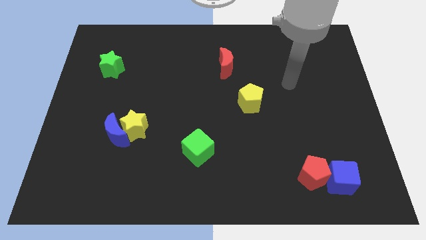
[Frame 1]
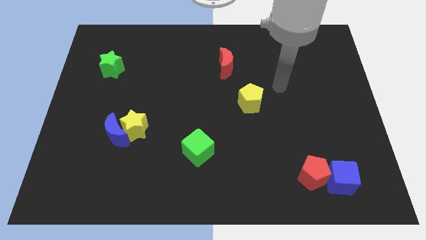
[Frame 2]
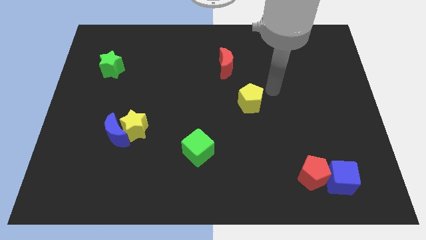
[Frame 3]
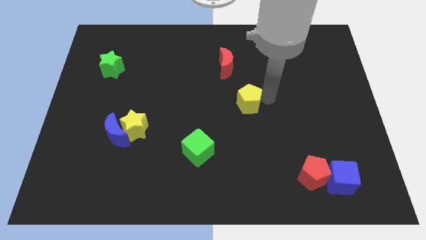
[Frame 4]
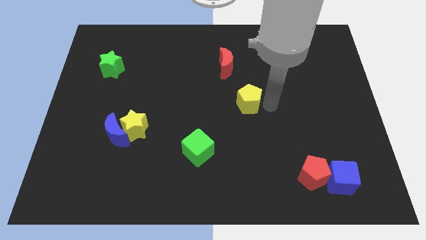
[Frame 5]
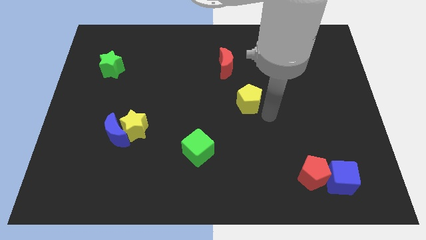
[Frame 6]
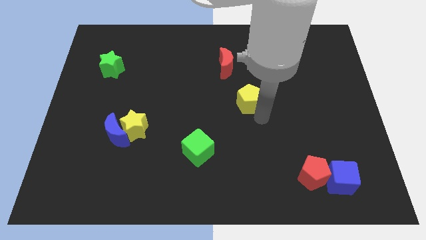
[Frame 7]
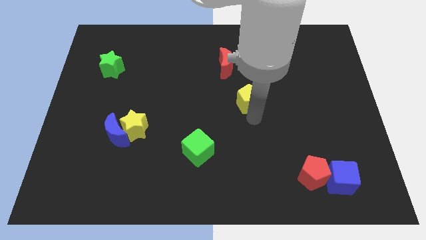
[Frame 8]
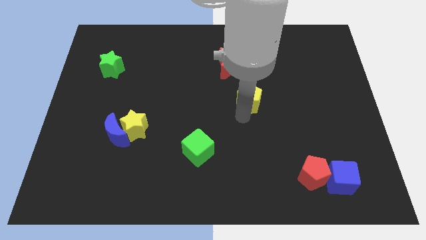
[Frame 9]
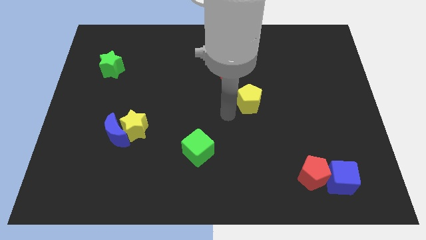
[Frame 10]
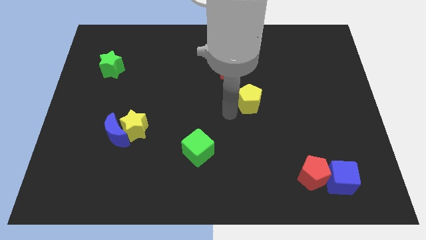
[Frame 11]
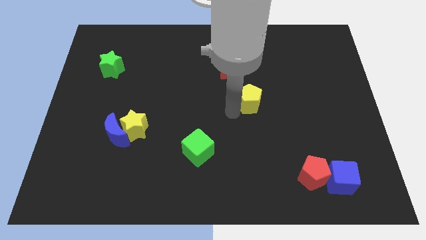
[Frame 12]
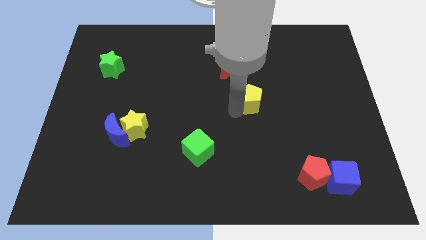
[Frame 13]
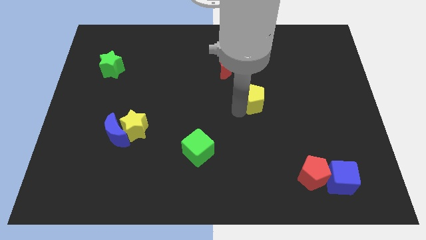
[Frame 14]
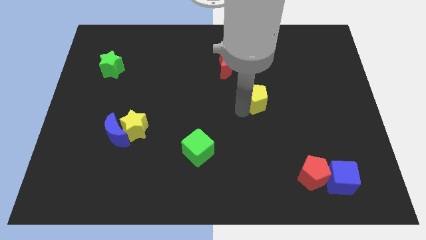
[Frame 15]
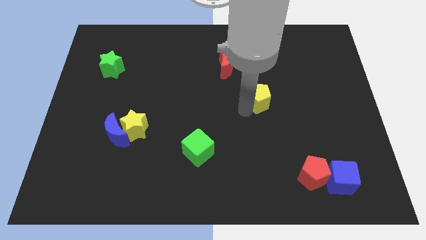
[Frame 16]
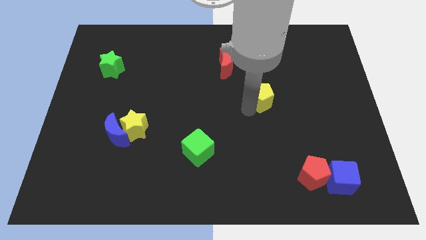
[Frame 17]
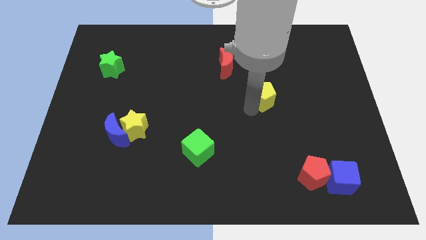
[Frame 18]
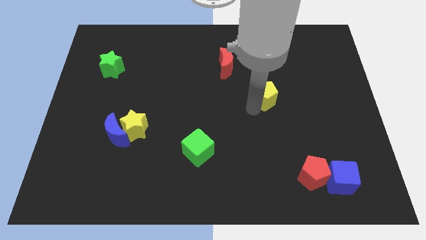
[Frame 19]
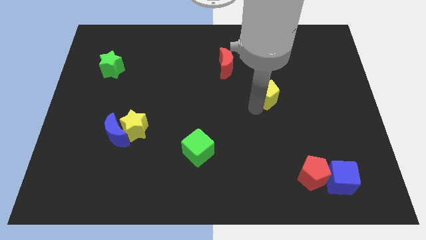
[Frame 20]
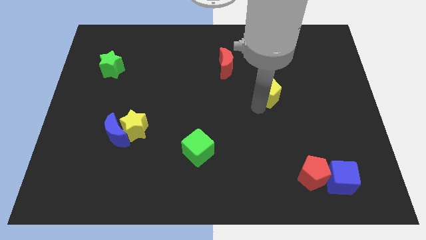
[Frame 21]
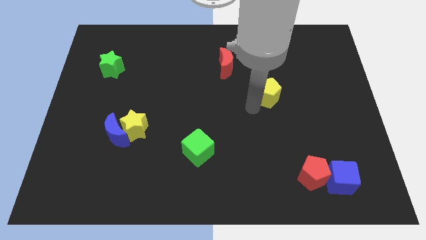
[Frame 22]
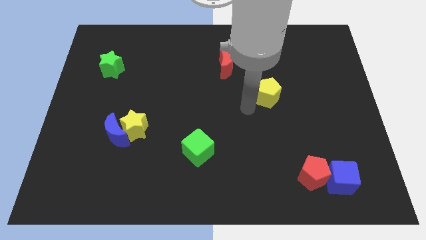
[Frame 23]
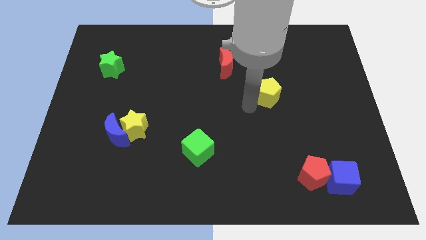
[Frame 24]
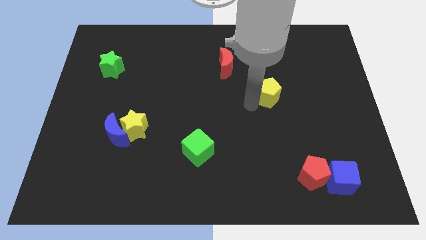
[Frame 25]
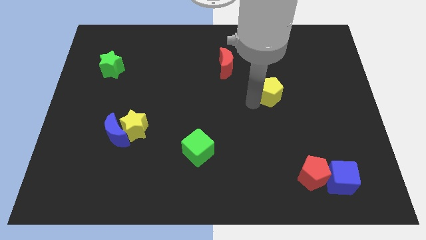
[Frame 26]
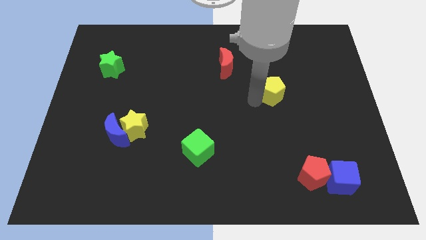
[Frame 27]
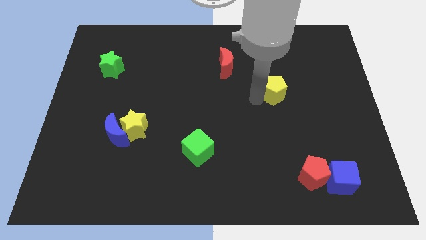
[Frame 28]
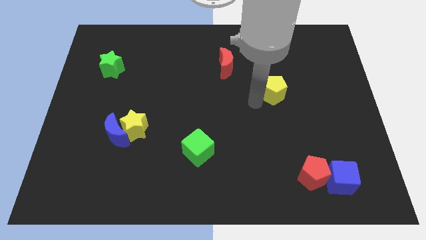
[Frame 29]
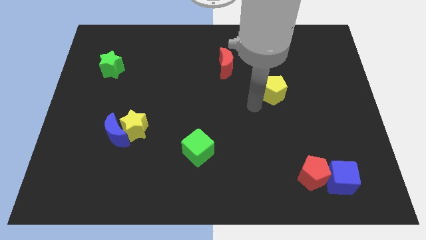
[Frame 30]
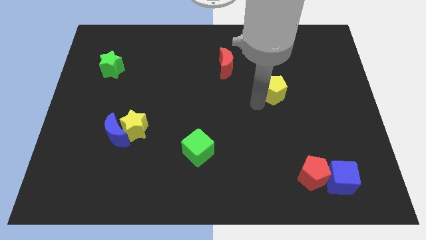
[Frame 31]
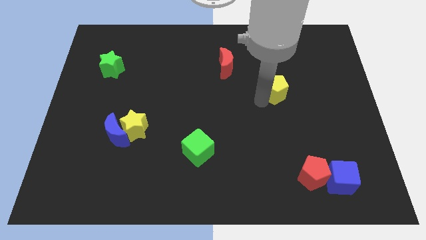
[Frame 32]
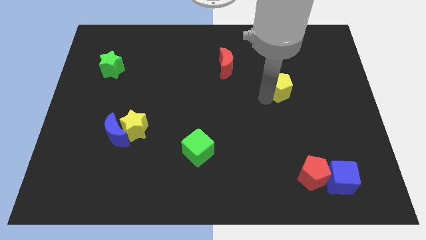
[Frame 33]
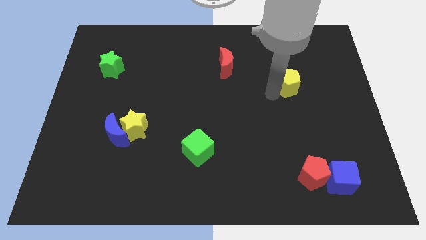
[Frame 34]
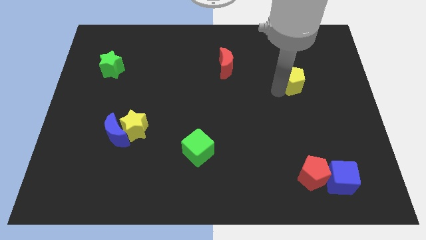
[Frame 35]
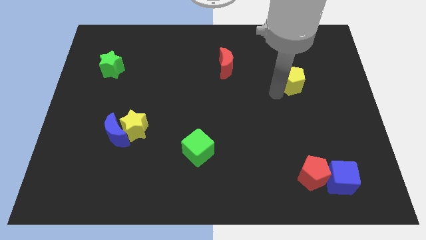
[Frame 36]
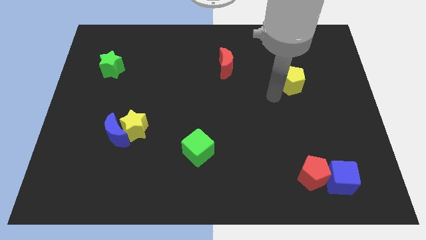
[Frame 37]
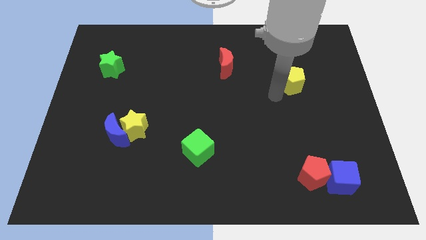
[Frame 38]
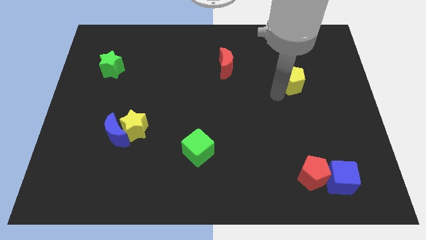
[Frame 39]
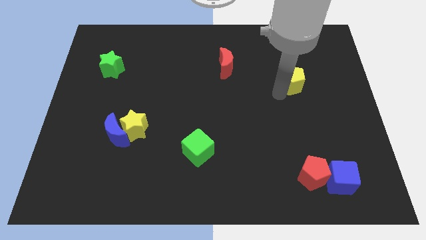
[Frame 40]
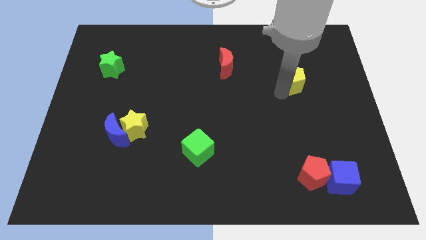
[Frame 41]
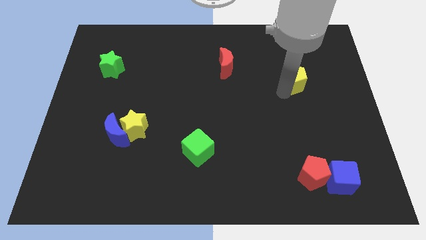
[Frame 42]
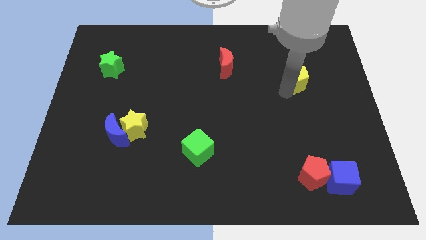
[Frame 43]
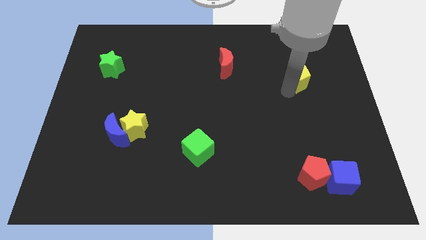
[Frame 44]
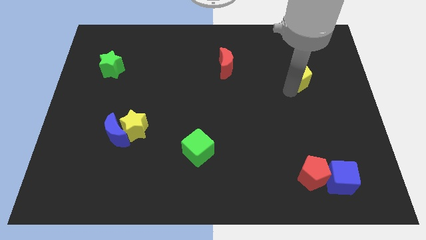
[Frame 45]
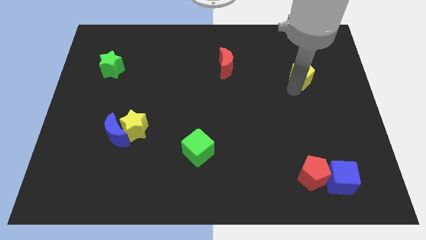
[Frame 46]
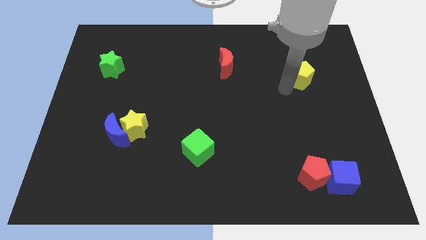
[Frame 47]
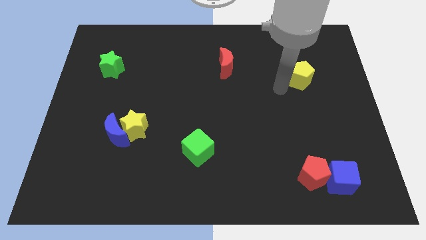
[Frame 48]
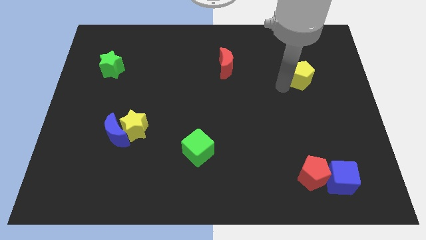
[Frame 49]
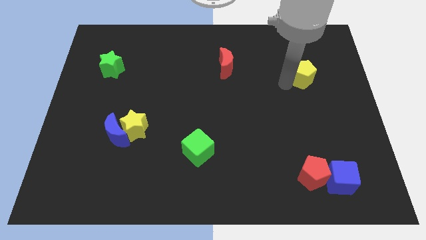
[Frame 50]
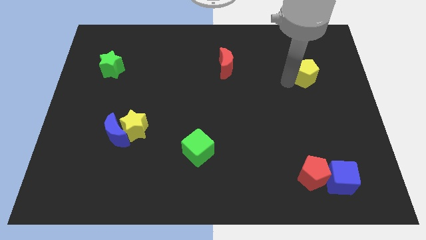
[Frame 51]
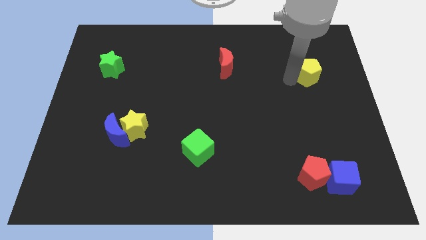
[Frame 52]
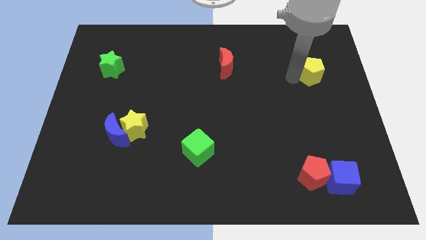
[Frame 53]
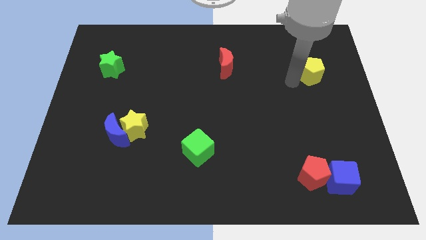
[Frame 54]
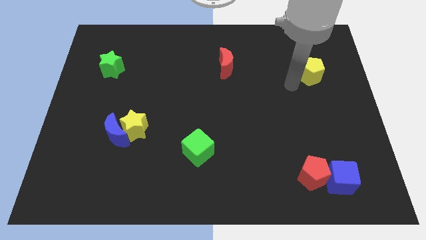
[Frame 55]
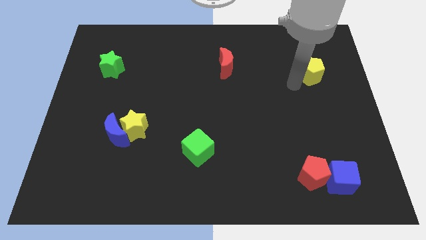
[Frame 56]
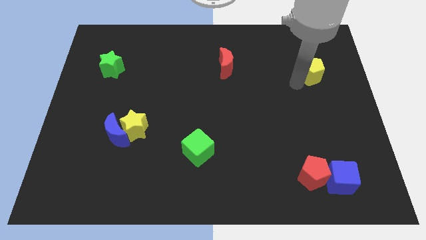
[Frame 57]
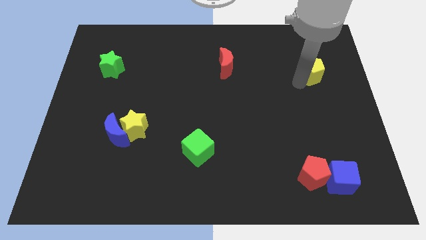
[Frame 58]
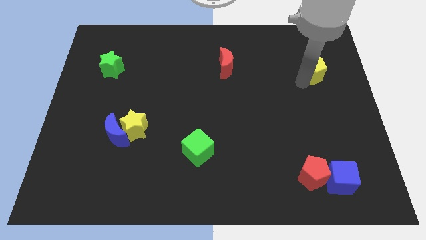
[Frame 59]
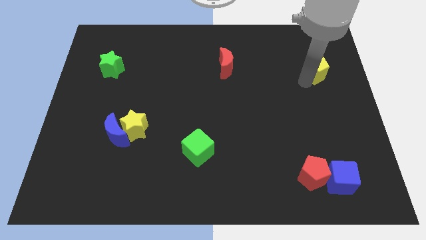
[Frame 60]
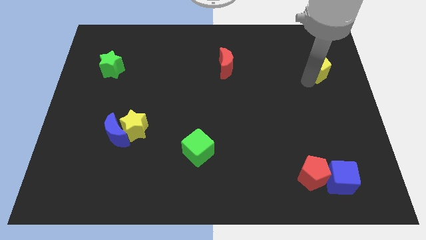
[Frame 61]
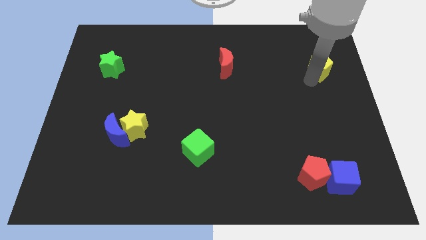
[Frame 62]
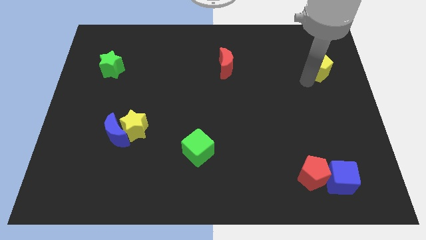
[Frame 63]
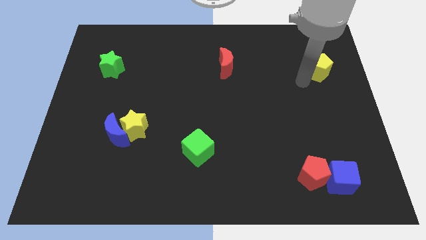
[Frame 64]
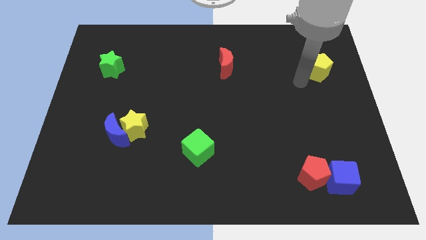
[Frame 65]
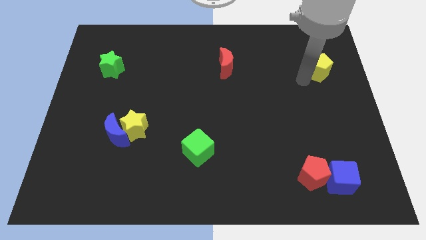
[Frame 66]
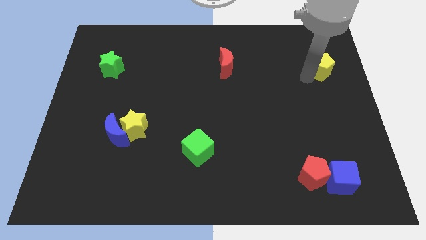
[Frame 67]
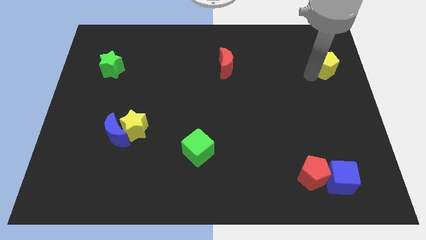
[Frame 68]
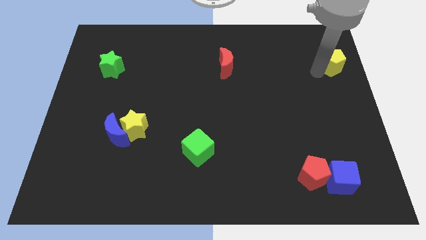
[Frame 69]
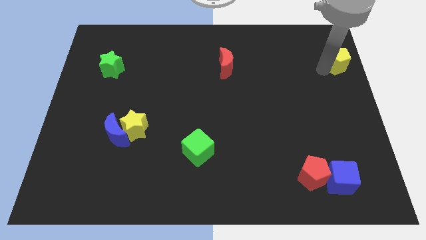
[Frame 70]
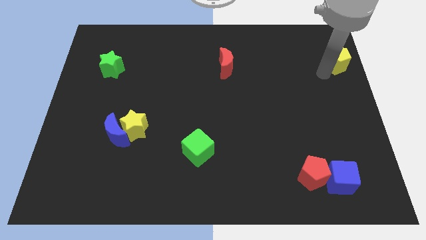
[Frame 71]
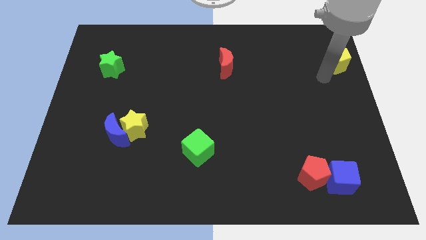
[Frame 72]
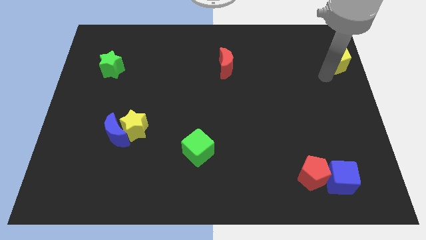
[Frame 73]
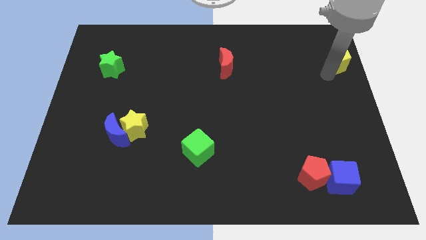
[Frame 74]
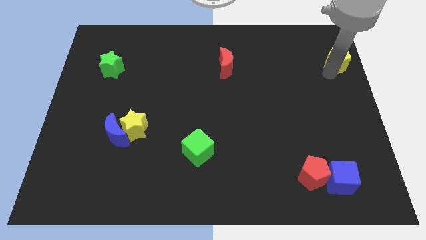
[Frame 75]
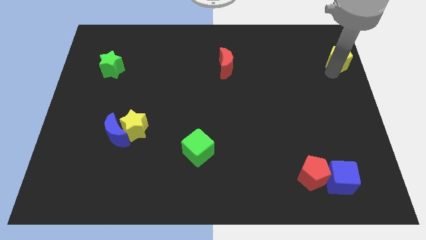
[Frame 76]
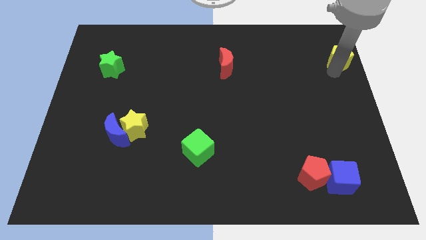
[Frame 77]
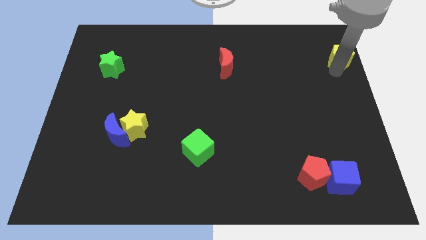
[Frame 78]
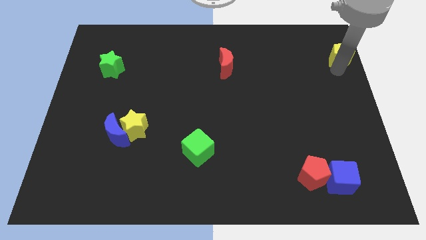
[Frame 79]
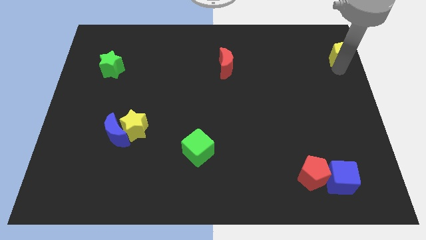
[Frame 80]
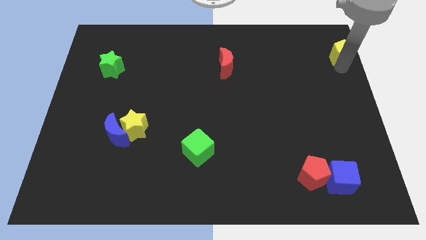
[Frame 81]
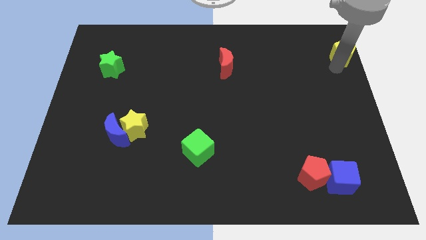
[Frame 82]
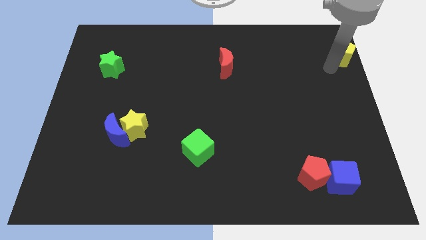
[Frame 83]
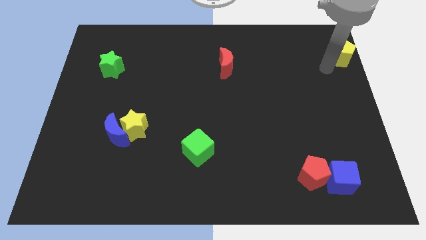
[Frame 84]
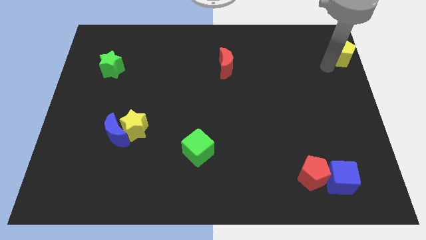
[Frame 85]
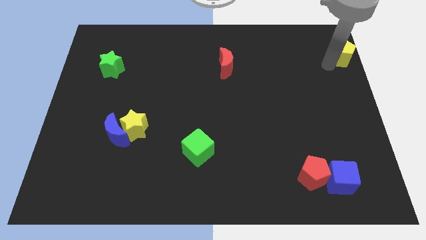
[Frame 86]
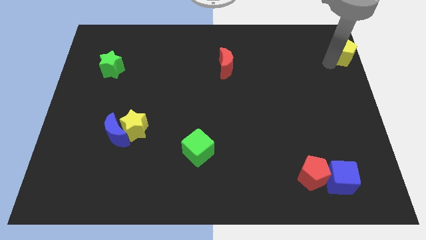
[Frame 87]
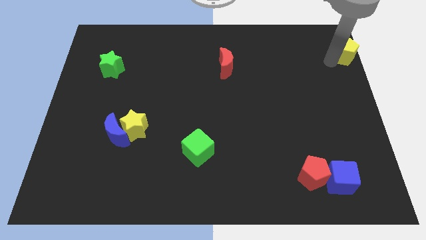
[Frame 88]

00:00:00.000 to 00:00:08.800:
slide the yellow pentagon to the top right of the board
